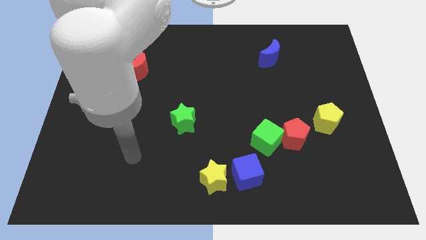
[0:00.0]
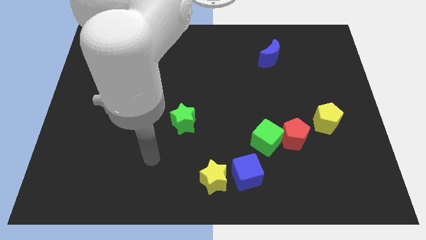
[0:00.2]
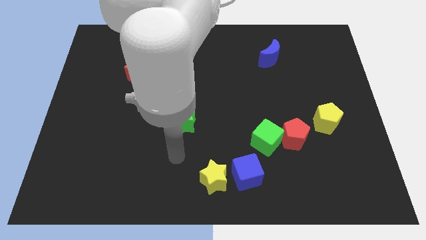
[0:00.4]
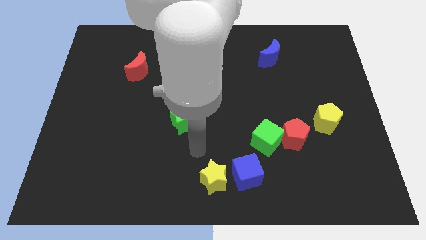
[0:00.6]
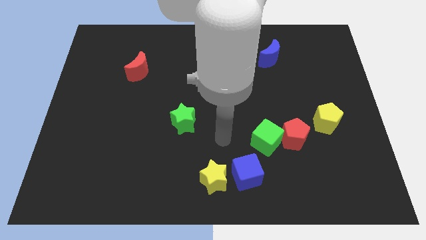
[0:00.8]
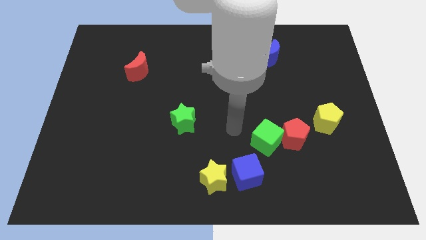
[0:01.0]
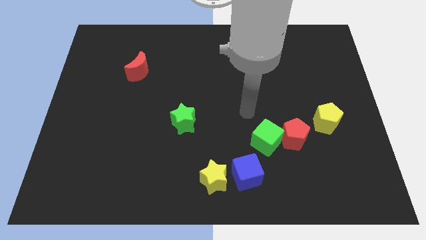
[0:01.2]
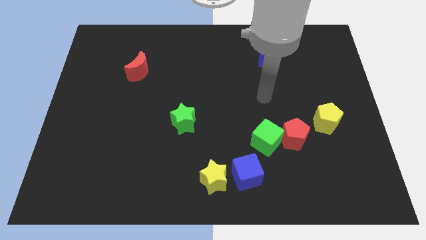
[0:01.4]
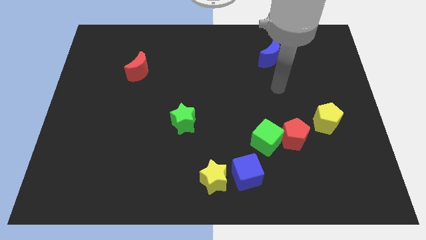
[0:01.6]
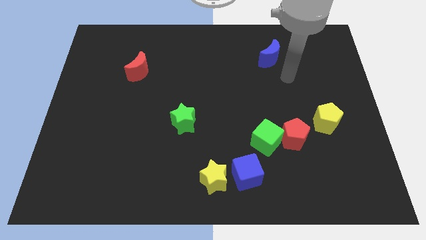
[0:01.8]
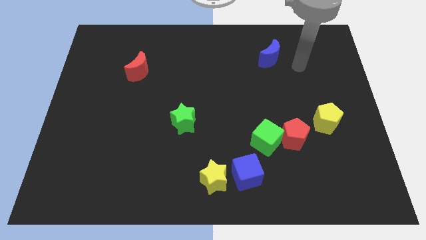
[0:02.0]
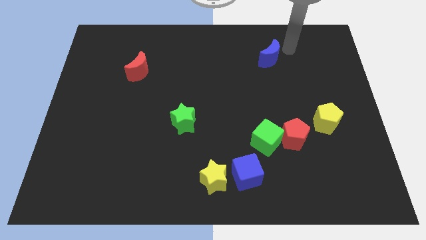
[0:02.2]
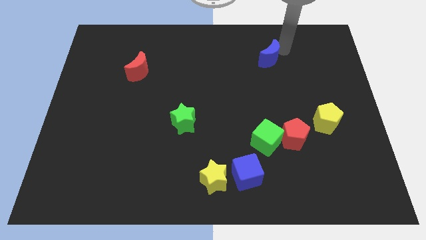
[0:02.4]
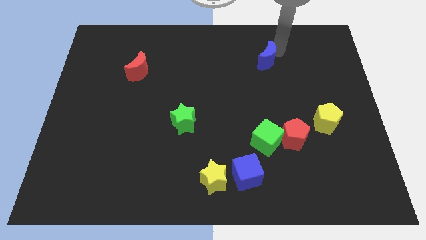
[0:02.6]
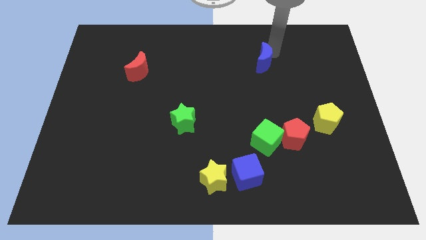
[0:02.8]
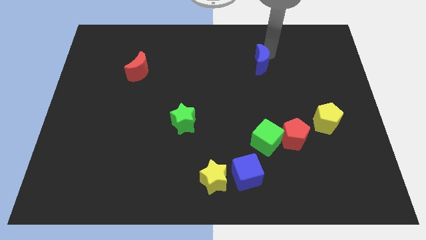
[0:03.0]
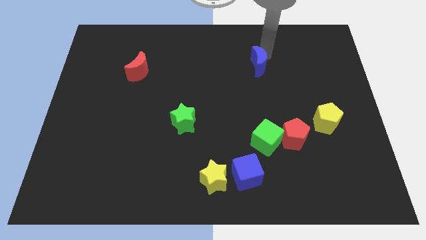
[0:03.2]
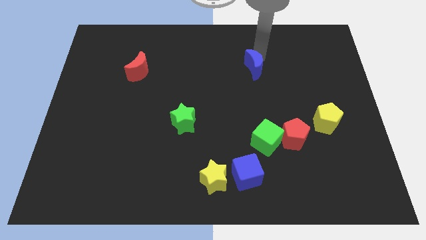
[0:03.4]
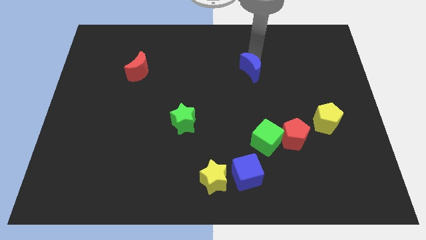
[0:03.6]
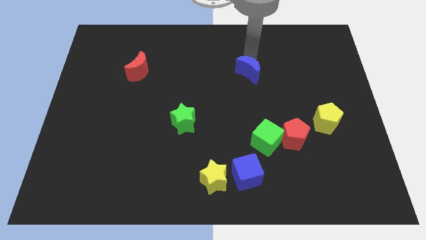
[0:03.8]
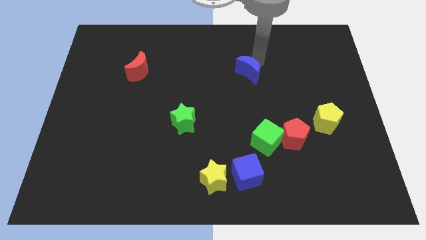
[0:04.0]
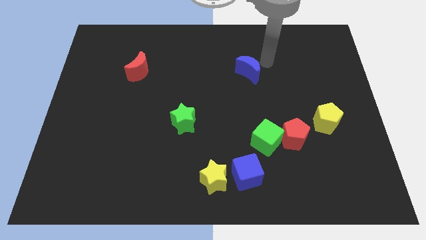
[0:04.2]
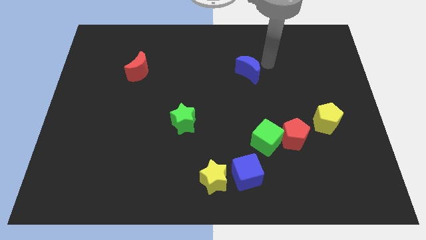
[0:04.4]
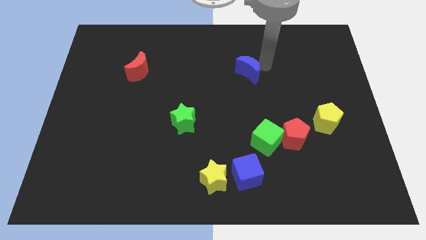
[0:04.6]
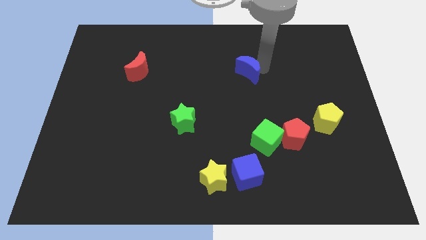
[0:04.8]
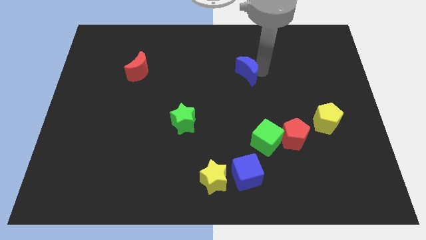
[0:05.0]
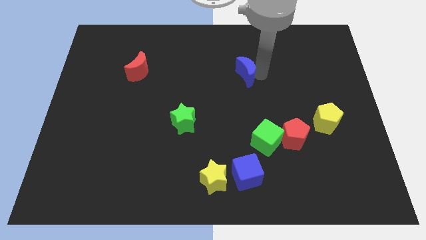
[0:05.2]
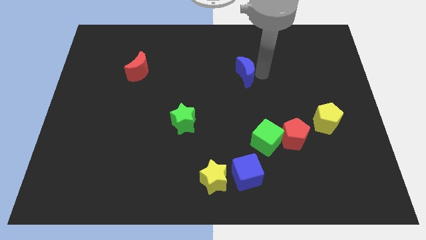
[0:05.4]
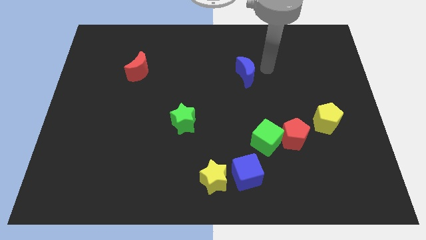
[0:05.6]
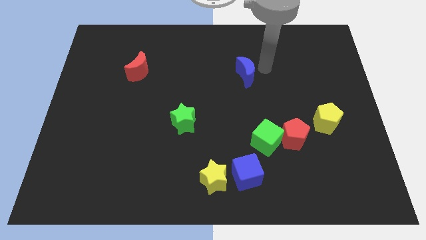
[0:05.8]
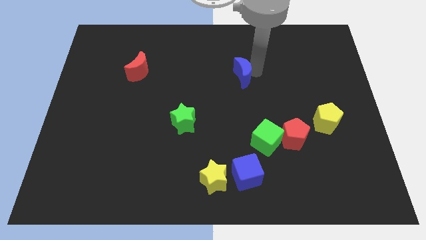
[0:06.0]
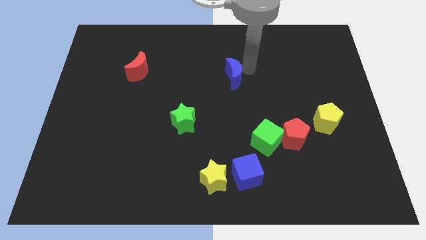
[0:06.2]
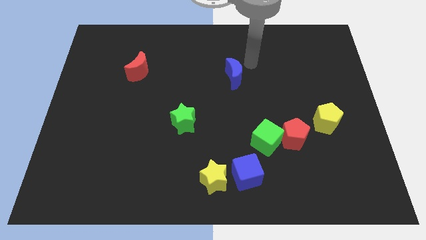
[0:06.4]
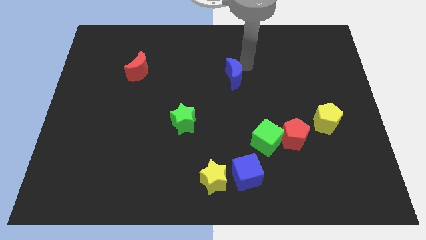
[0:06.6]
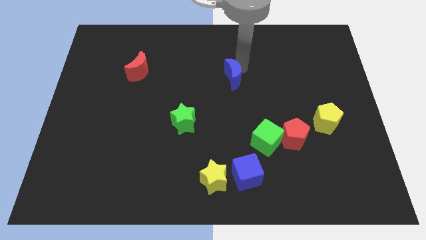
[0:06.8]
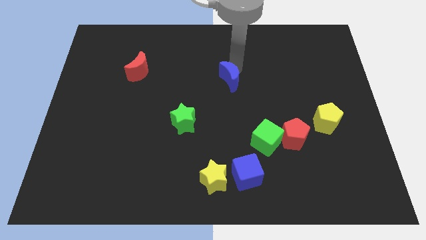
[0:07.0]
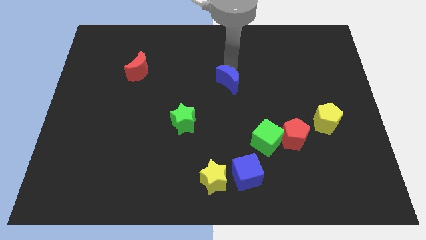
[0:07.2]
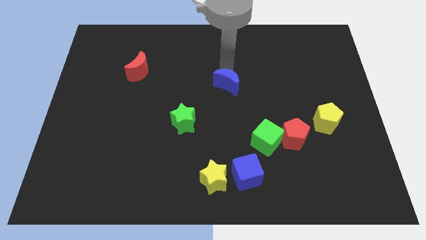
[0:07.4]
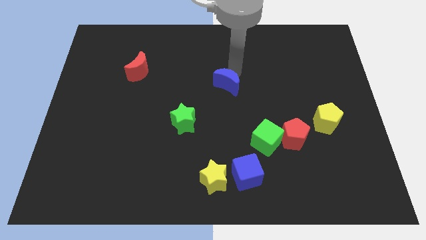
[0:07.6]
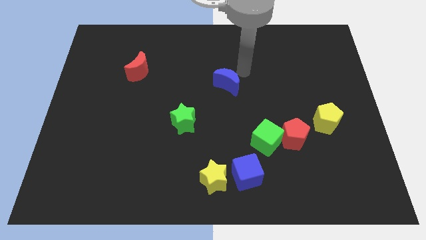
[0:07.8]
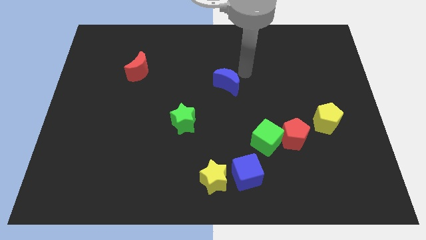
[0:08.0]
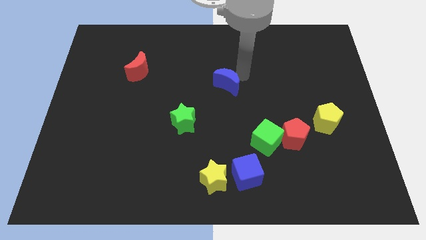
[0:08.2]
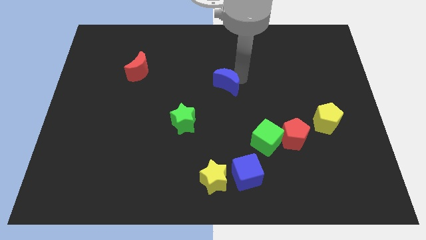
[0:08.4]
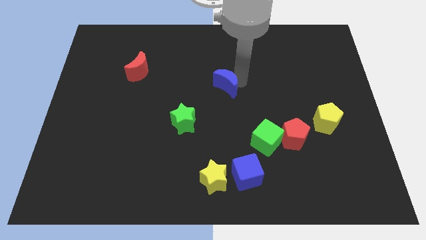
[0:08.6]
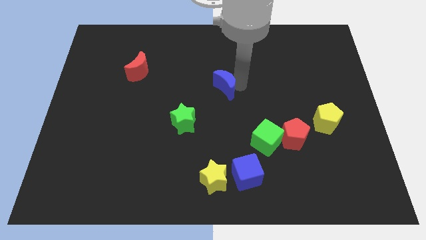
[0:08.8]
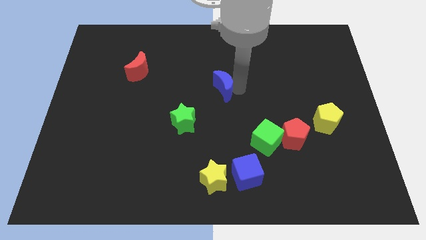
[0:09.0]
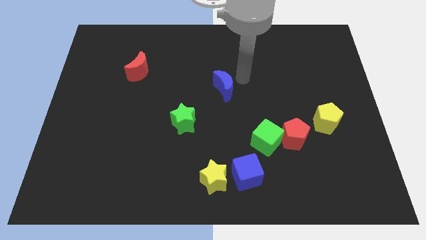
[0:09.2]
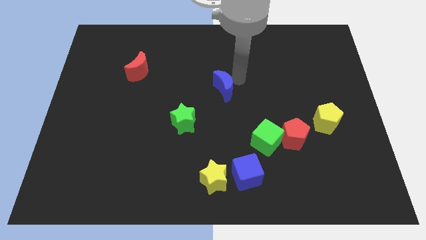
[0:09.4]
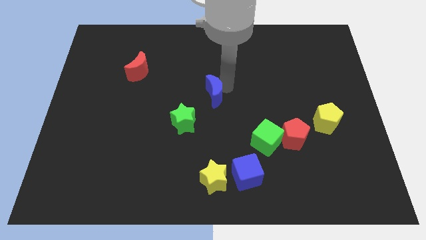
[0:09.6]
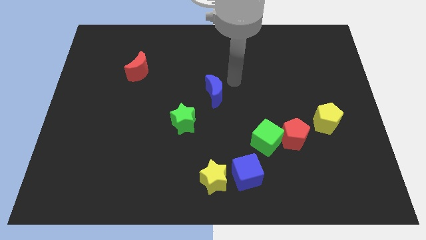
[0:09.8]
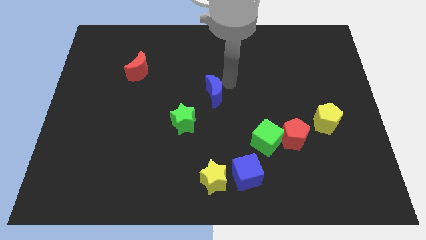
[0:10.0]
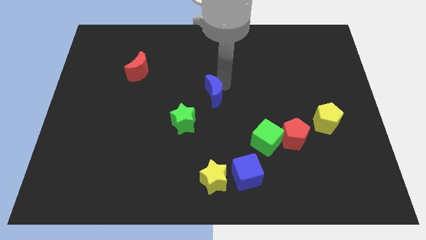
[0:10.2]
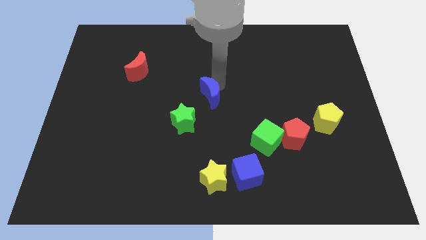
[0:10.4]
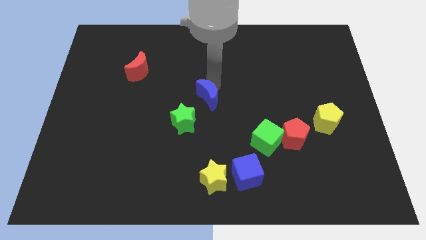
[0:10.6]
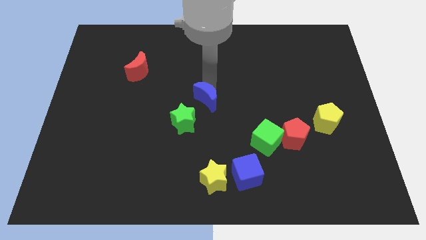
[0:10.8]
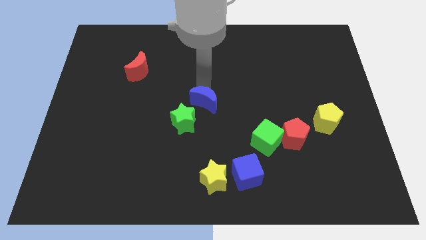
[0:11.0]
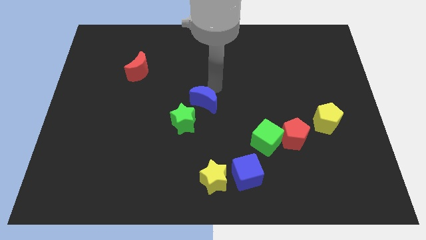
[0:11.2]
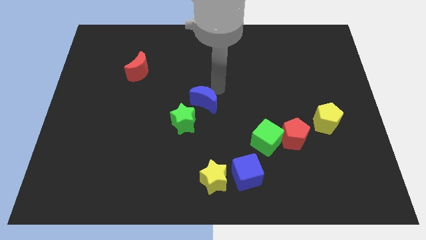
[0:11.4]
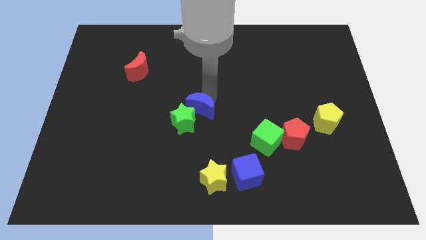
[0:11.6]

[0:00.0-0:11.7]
put the blue moon next to the green star

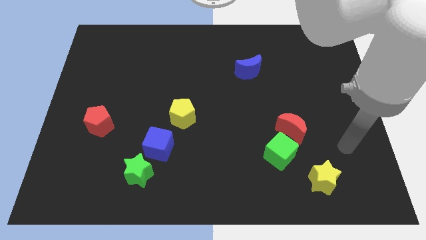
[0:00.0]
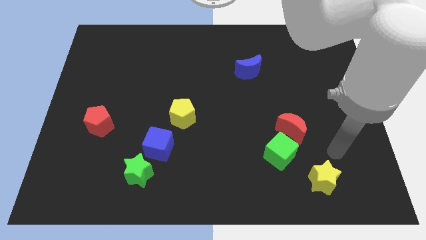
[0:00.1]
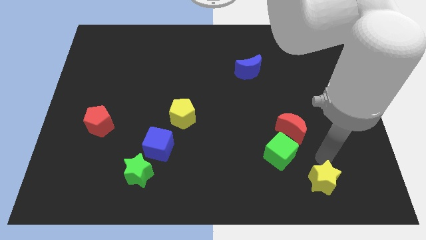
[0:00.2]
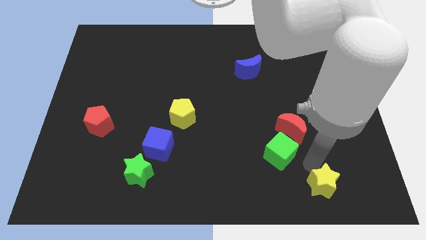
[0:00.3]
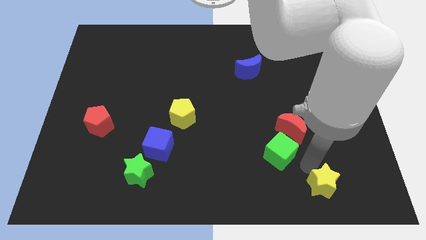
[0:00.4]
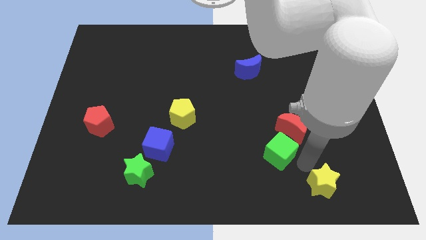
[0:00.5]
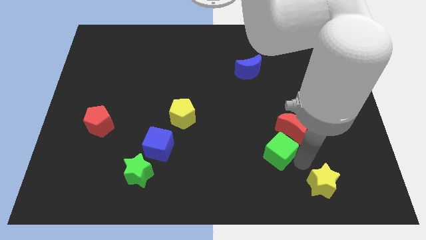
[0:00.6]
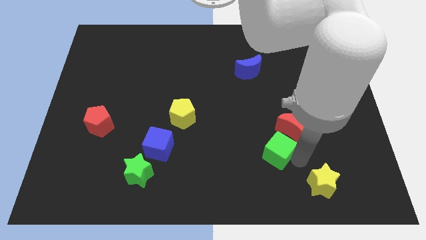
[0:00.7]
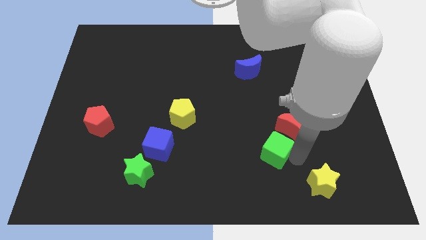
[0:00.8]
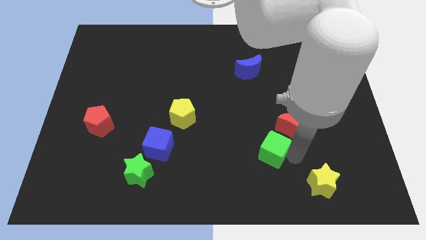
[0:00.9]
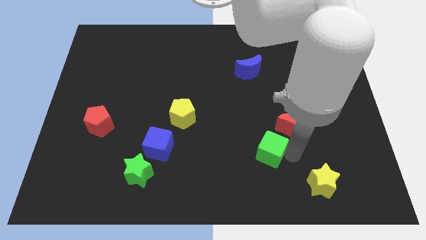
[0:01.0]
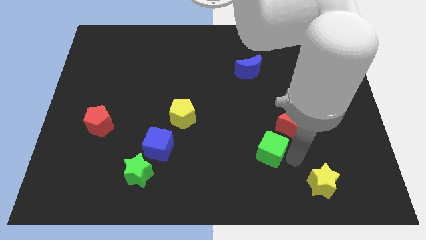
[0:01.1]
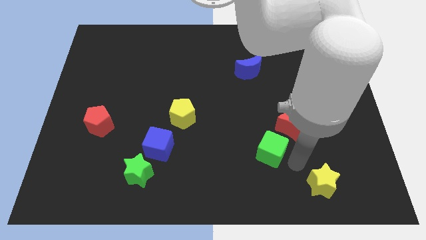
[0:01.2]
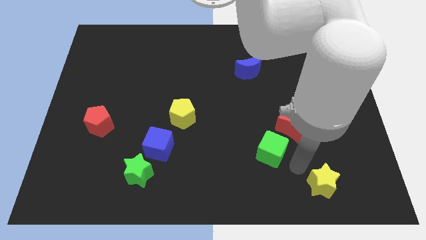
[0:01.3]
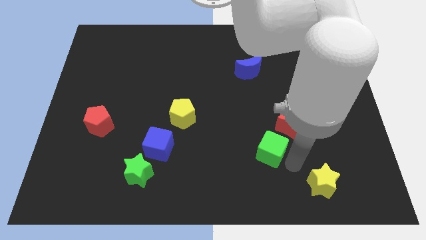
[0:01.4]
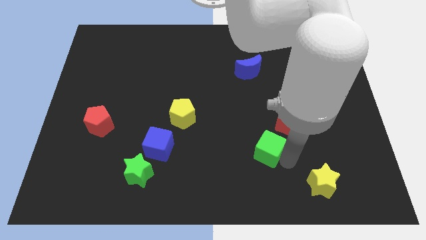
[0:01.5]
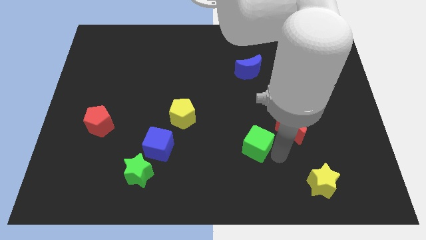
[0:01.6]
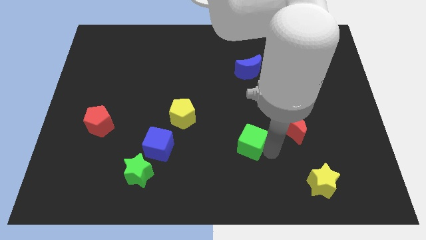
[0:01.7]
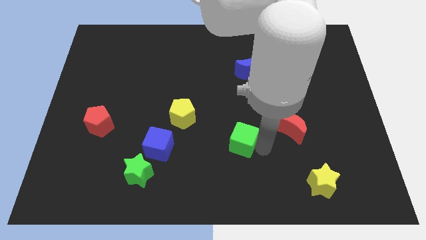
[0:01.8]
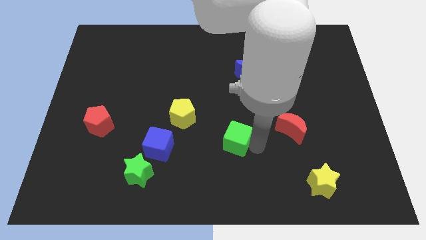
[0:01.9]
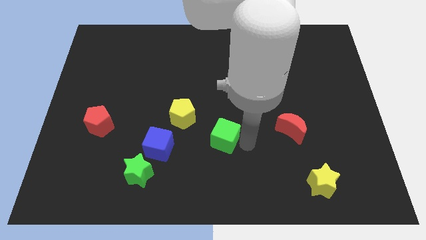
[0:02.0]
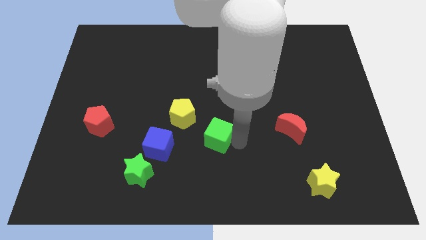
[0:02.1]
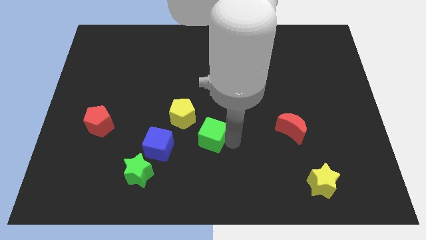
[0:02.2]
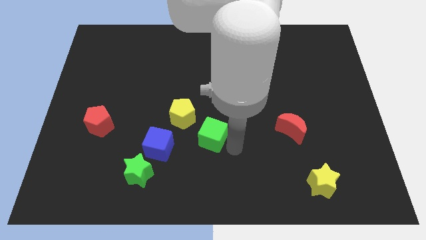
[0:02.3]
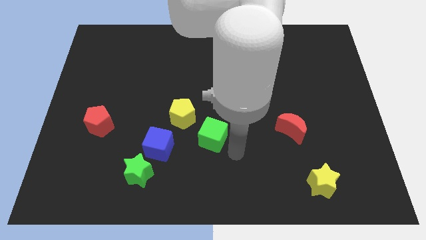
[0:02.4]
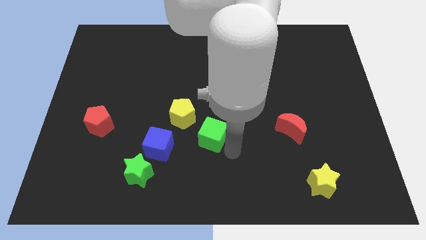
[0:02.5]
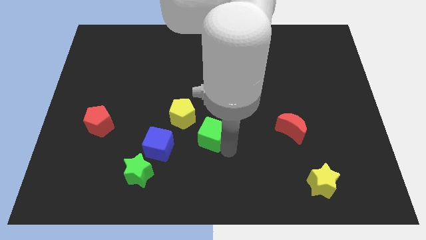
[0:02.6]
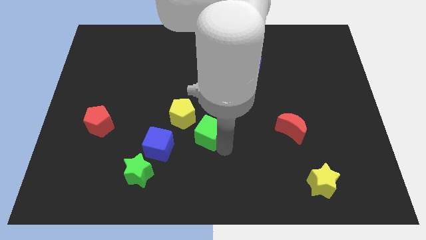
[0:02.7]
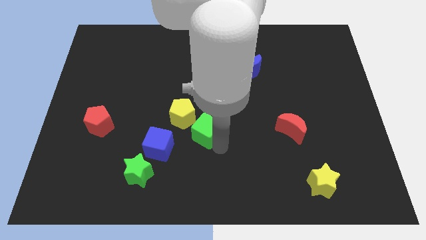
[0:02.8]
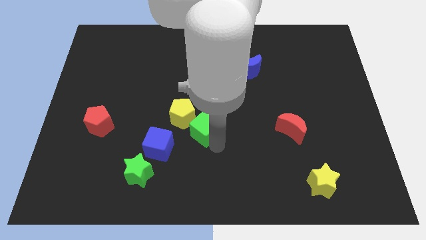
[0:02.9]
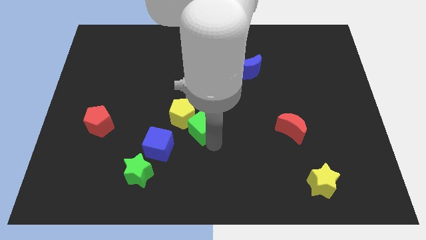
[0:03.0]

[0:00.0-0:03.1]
put the green cube to the yellow pentagon
